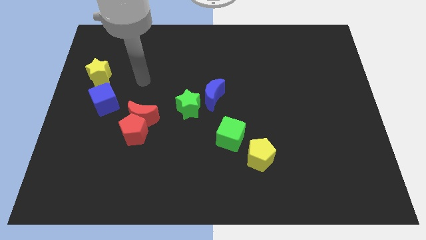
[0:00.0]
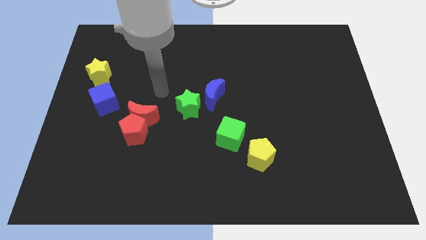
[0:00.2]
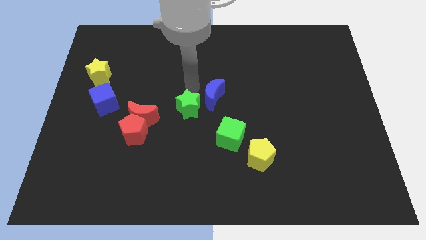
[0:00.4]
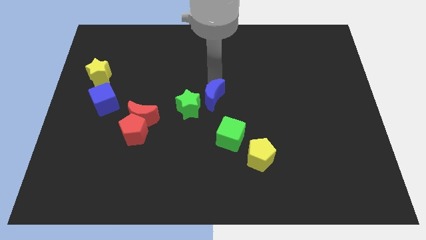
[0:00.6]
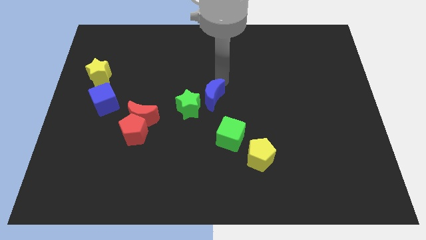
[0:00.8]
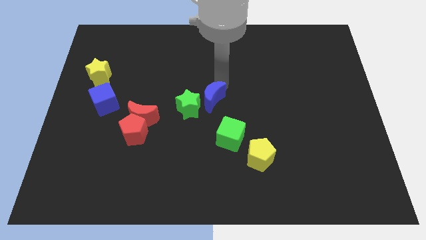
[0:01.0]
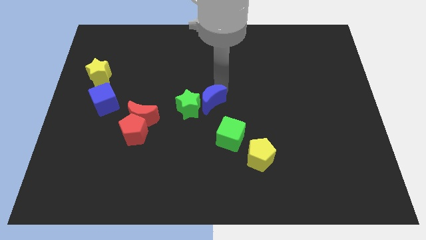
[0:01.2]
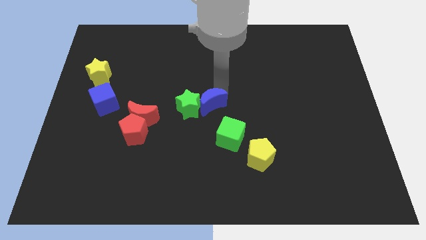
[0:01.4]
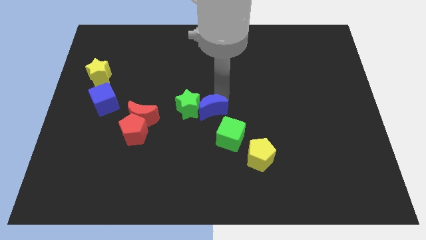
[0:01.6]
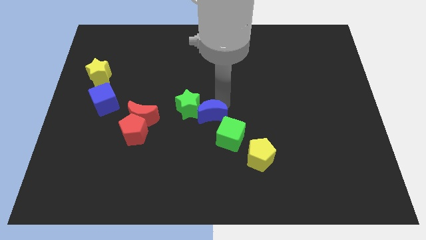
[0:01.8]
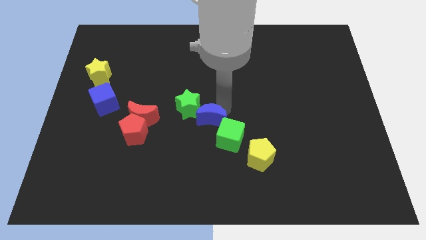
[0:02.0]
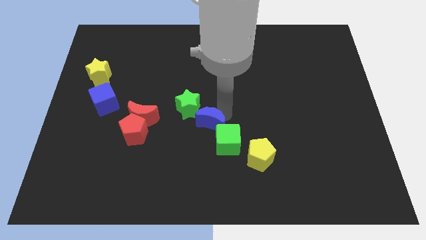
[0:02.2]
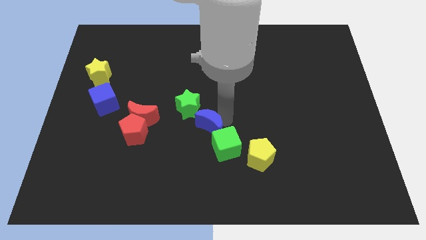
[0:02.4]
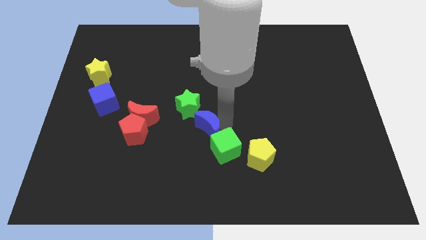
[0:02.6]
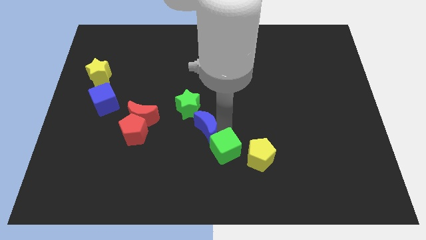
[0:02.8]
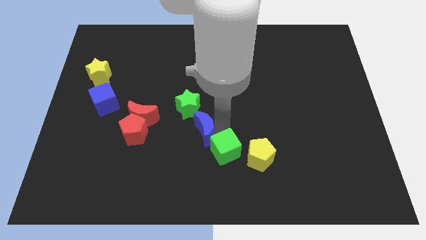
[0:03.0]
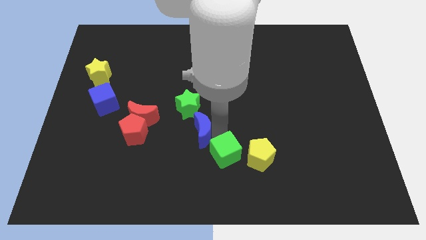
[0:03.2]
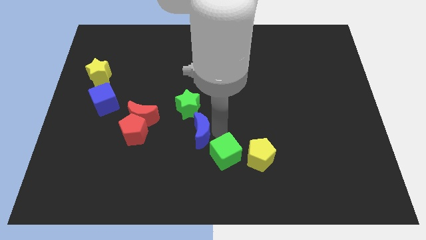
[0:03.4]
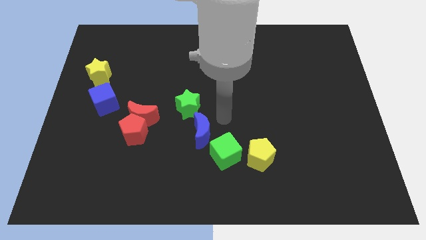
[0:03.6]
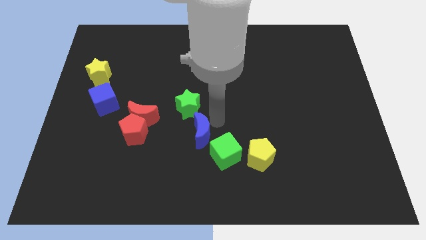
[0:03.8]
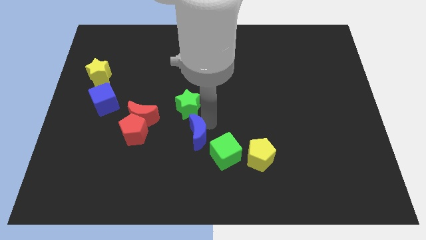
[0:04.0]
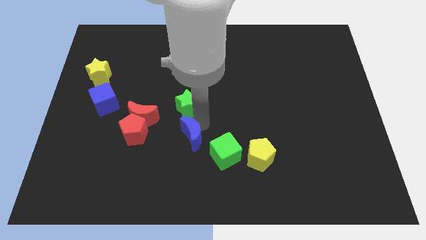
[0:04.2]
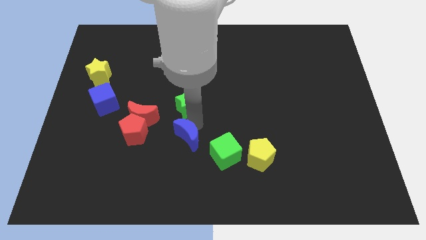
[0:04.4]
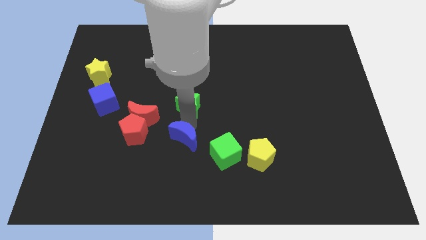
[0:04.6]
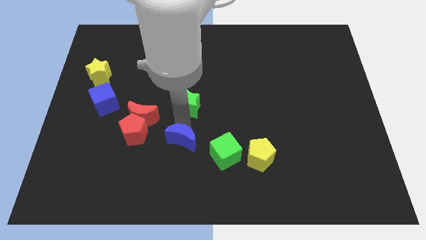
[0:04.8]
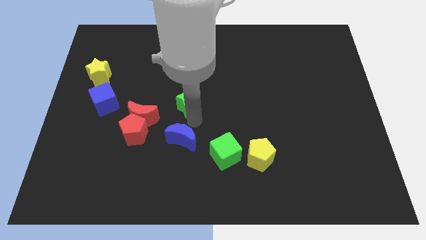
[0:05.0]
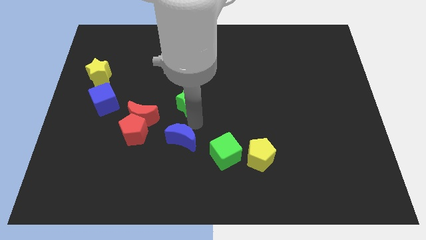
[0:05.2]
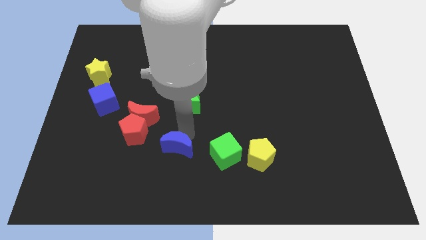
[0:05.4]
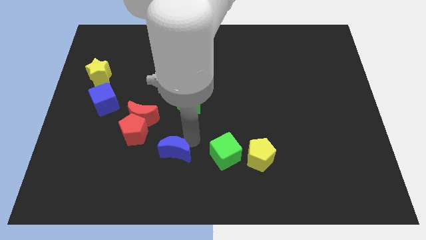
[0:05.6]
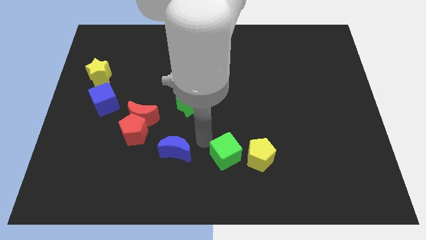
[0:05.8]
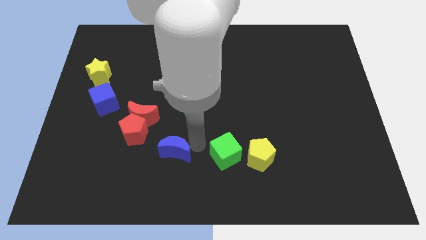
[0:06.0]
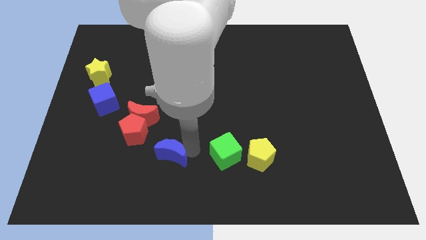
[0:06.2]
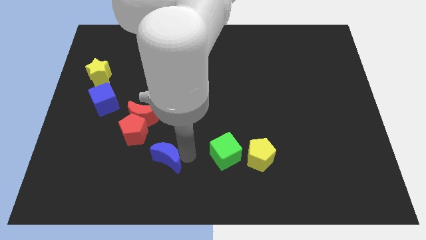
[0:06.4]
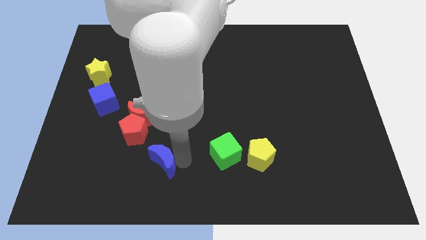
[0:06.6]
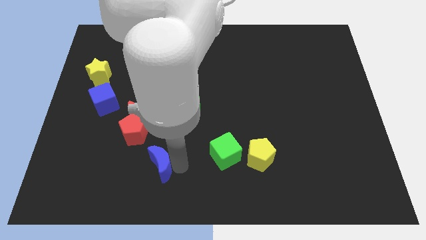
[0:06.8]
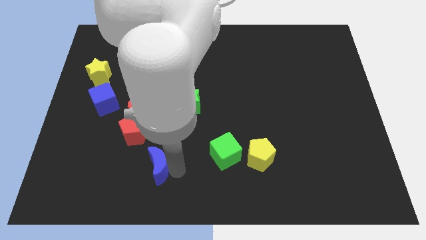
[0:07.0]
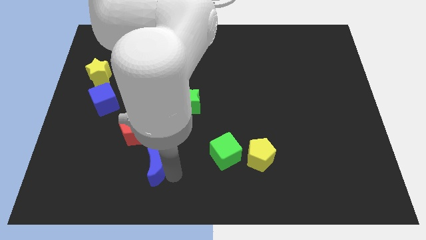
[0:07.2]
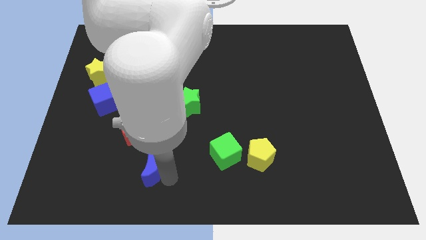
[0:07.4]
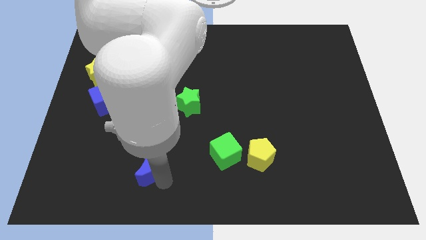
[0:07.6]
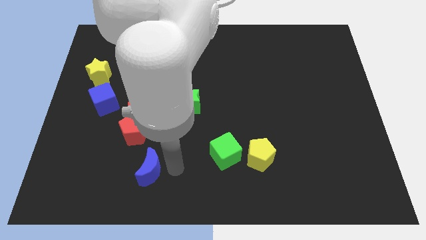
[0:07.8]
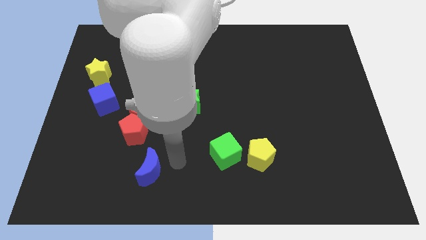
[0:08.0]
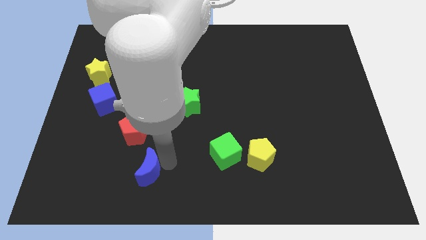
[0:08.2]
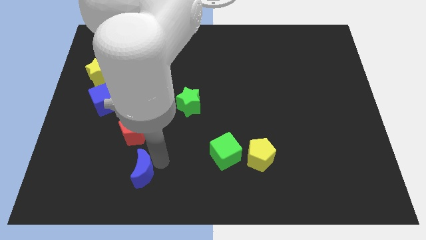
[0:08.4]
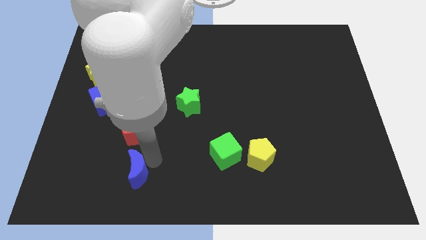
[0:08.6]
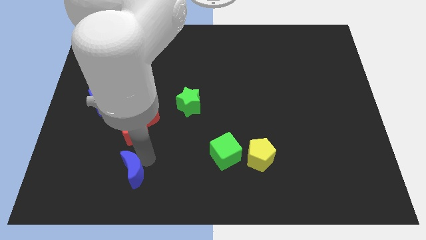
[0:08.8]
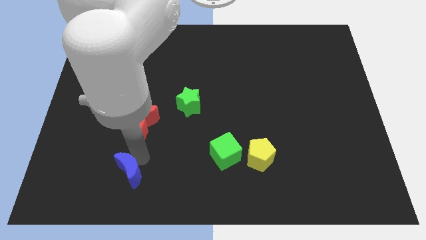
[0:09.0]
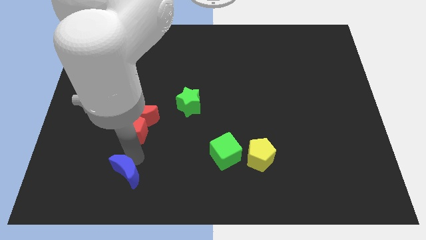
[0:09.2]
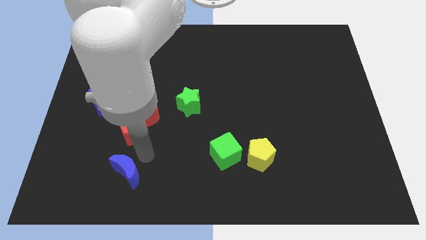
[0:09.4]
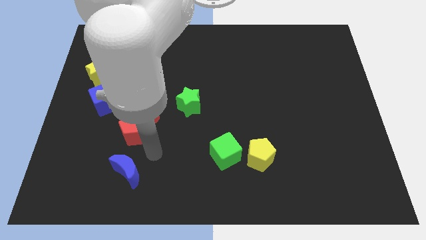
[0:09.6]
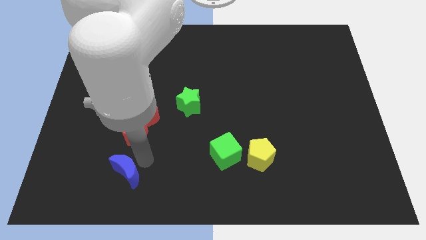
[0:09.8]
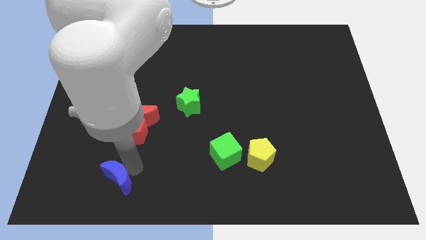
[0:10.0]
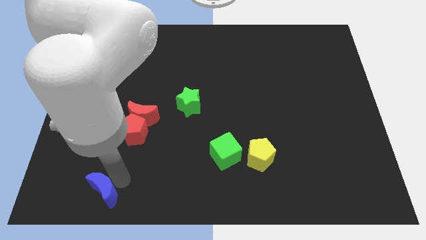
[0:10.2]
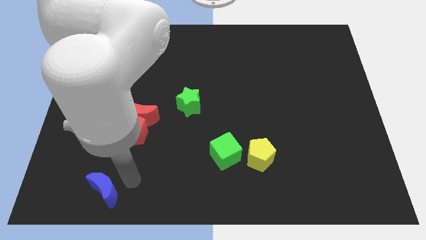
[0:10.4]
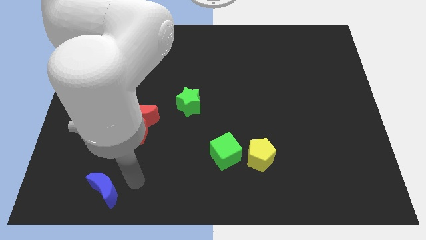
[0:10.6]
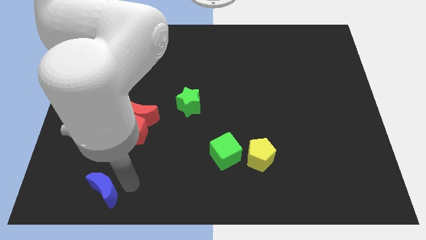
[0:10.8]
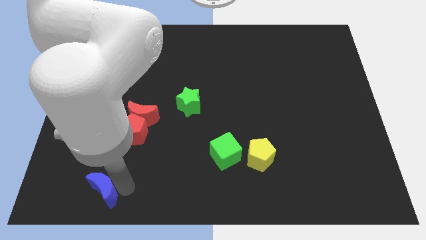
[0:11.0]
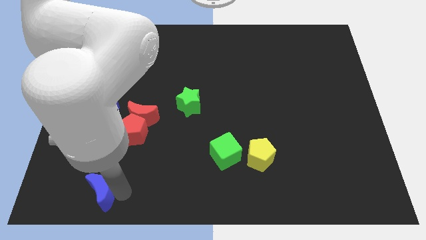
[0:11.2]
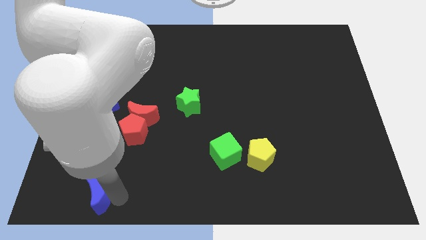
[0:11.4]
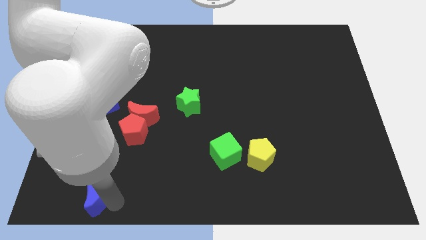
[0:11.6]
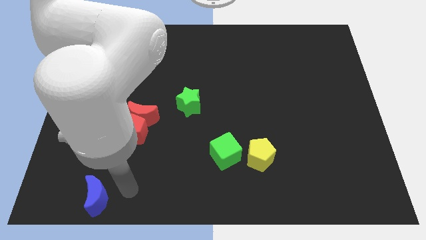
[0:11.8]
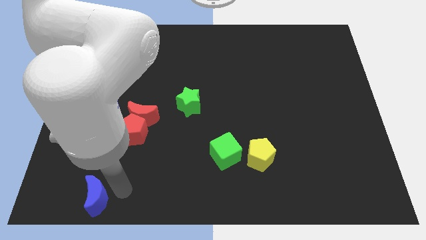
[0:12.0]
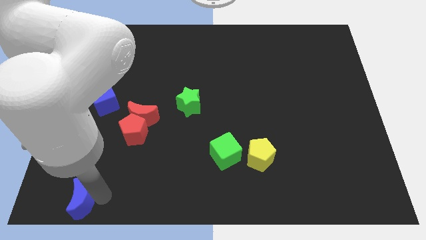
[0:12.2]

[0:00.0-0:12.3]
slide the blue moon to the bottom left of the board
